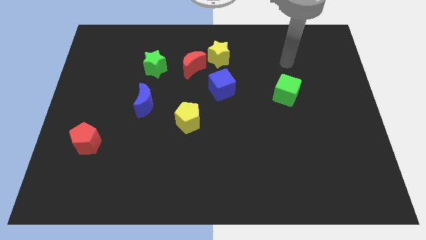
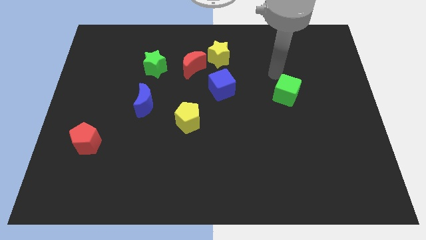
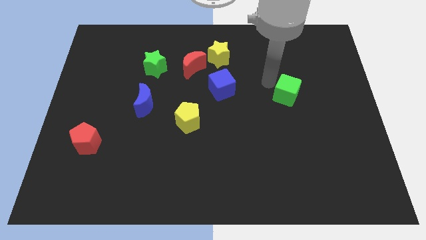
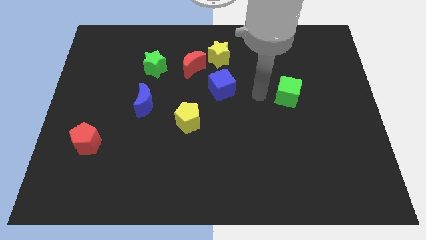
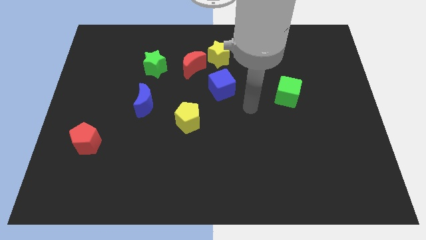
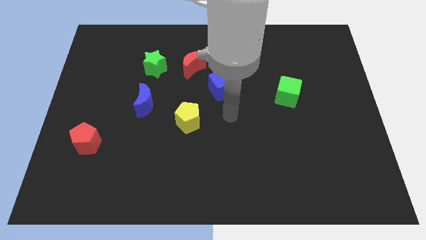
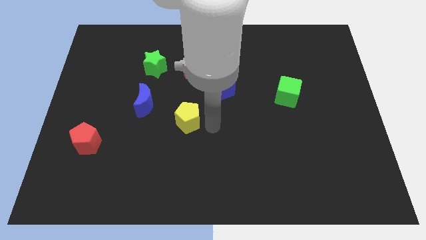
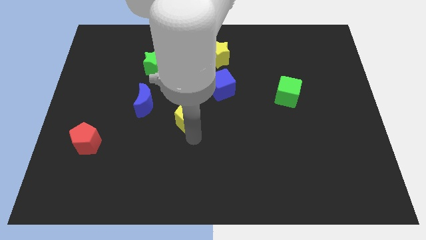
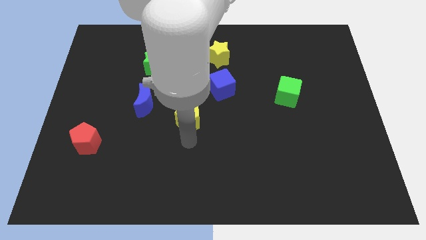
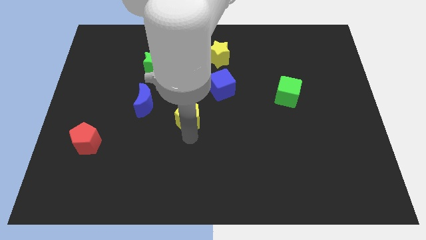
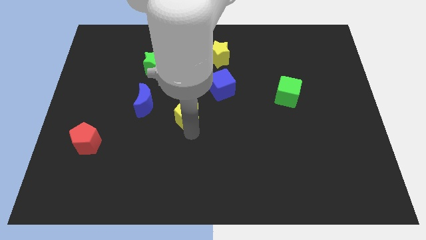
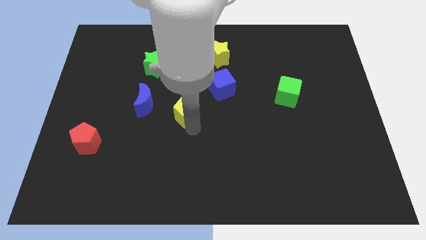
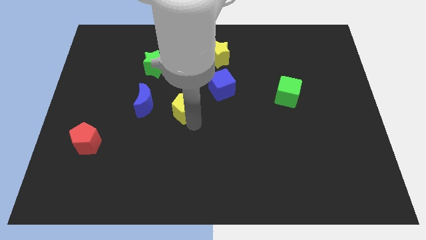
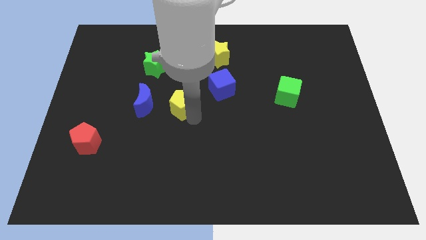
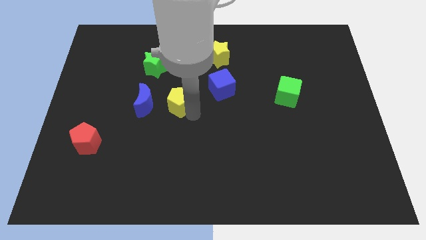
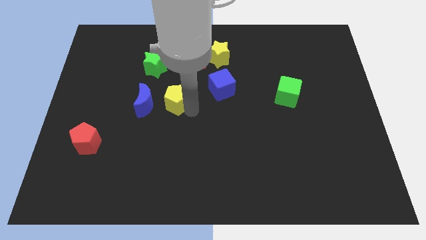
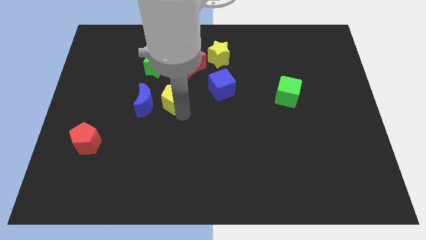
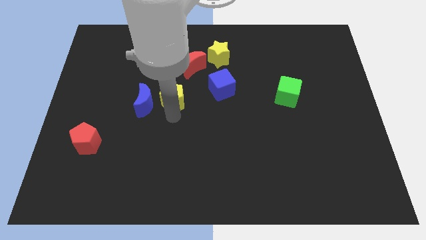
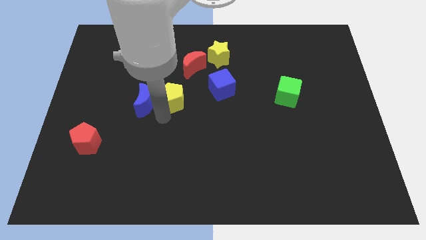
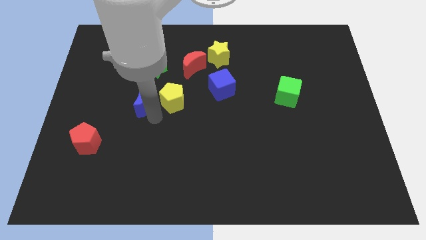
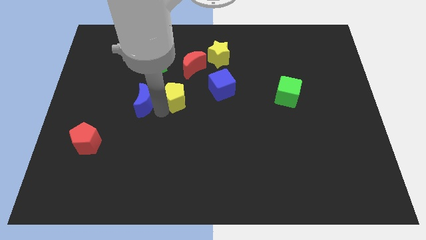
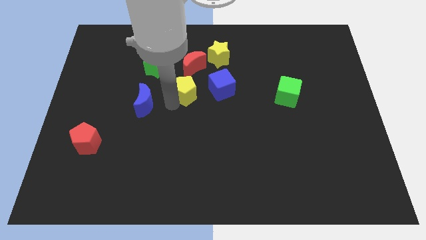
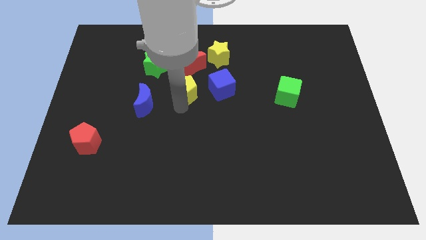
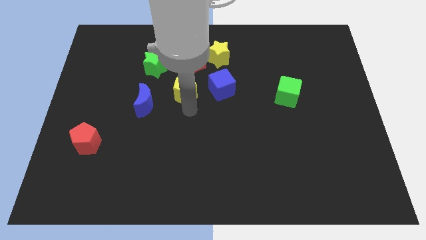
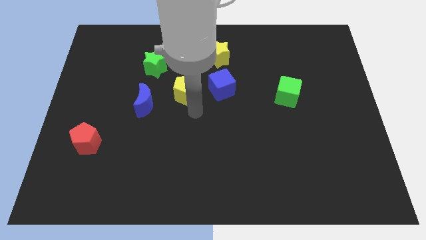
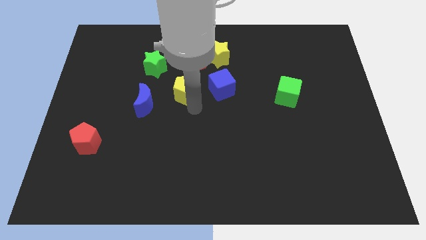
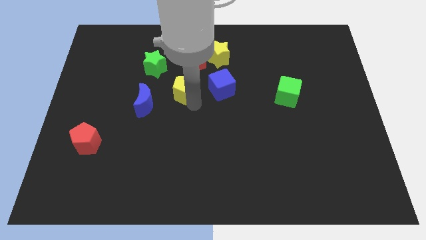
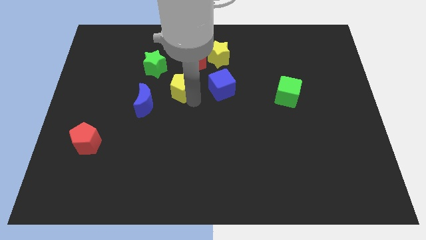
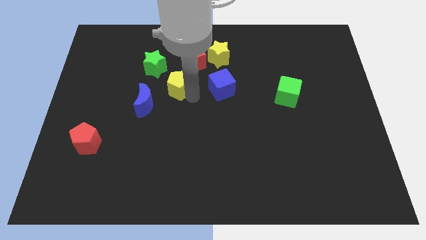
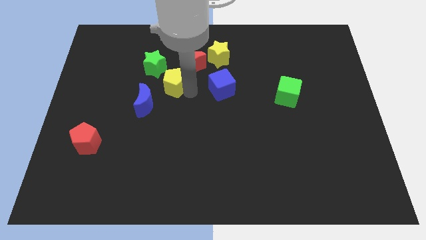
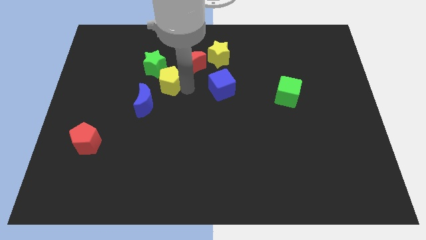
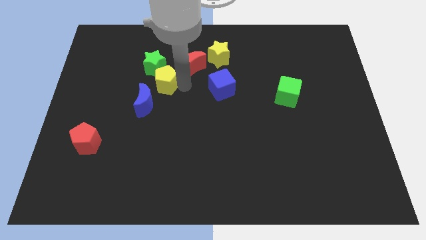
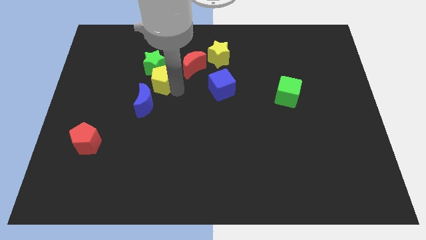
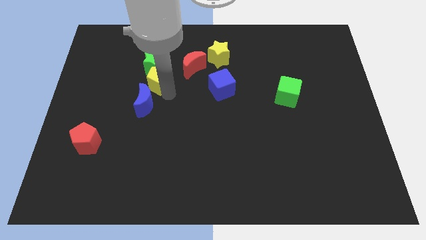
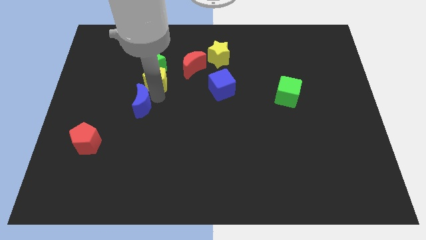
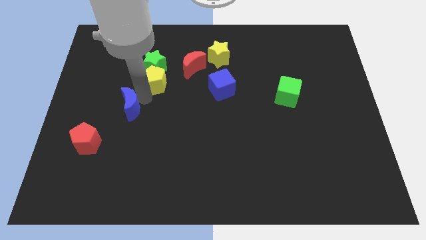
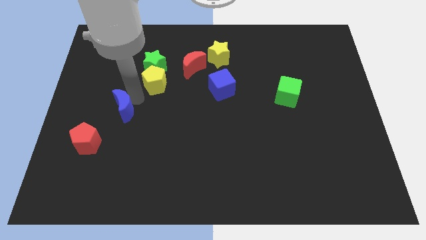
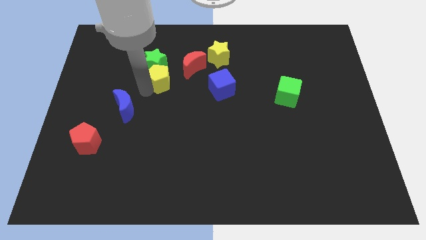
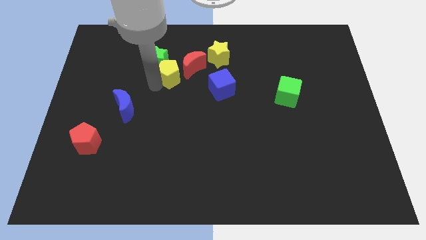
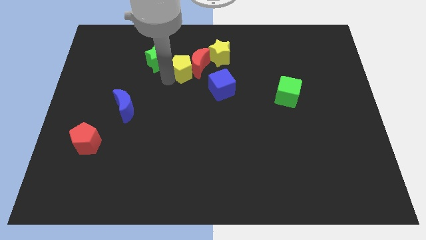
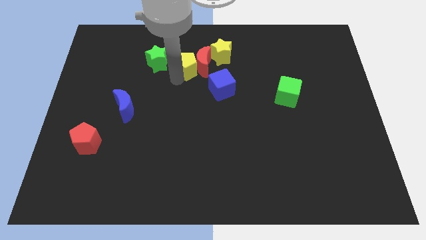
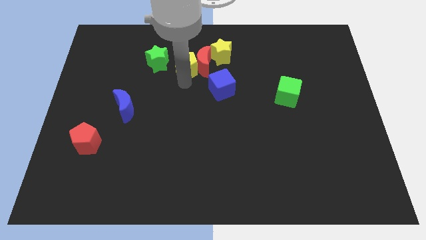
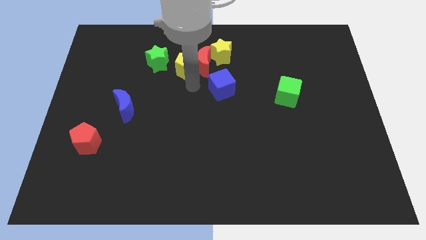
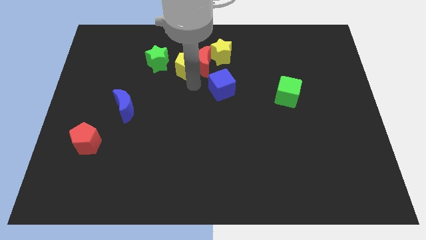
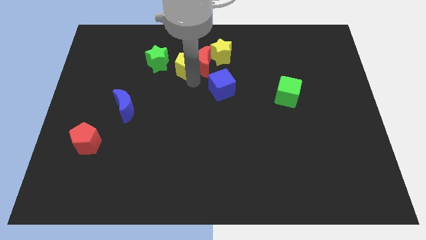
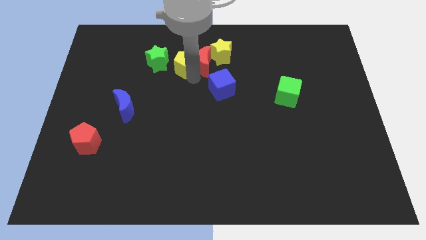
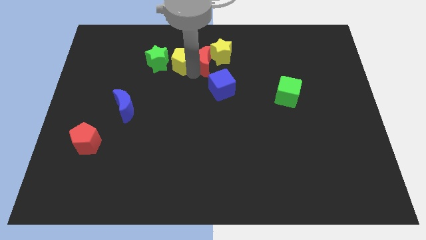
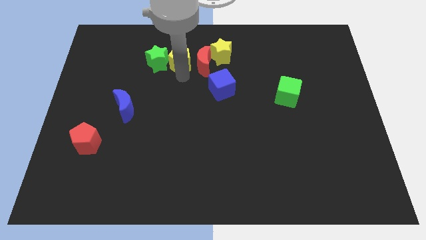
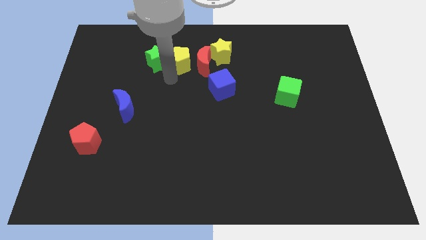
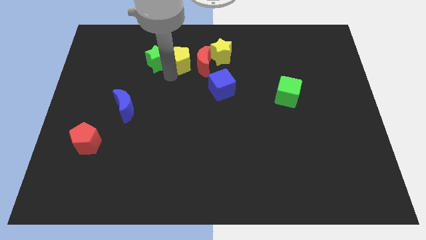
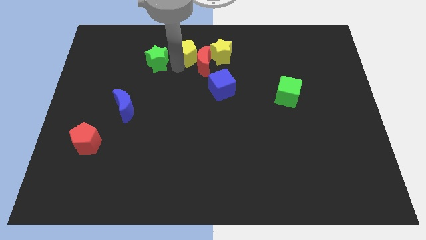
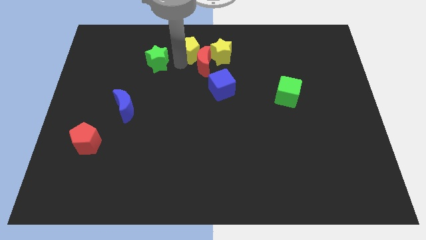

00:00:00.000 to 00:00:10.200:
move the yellow pentagon to the towards your base

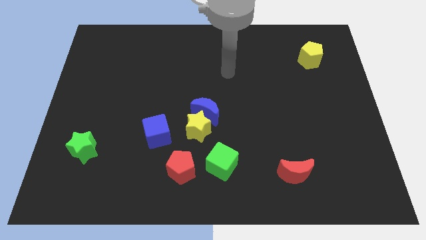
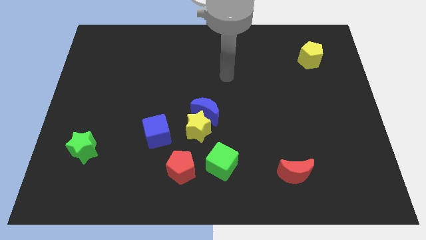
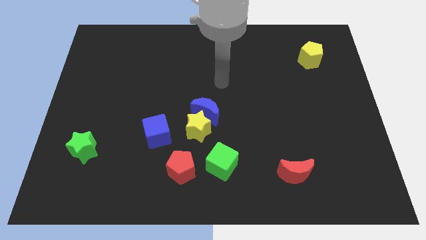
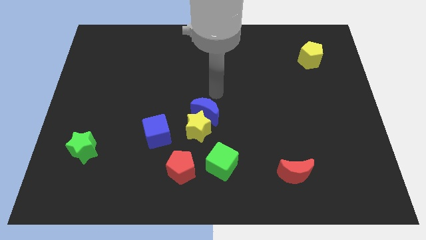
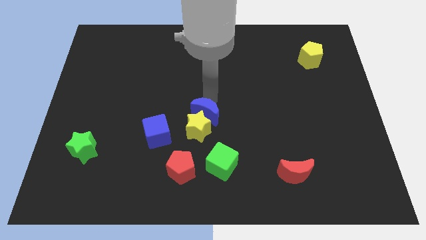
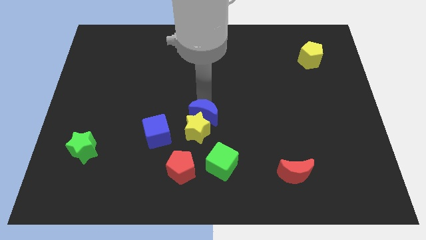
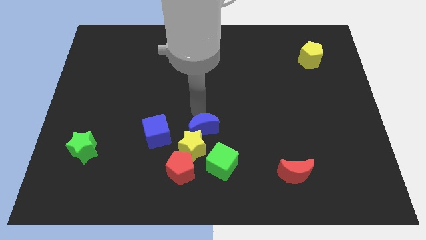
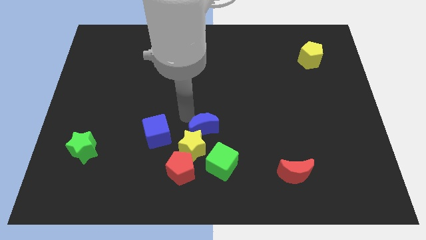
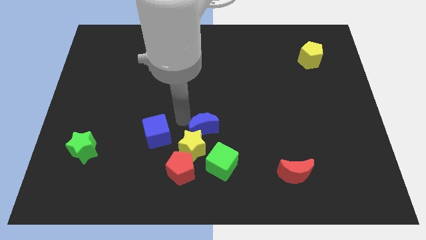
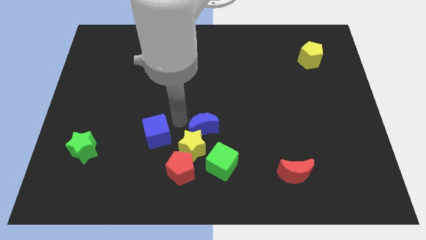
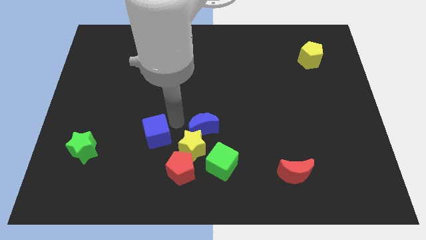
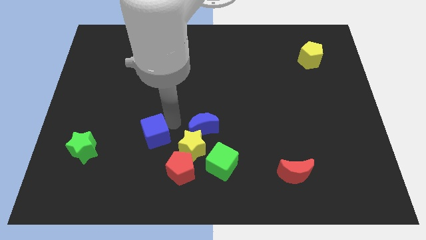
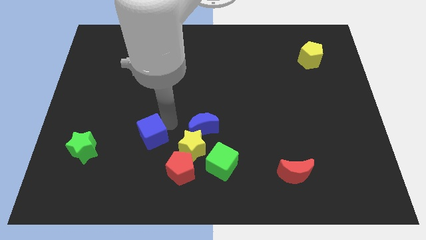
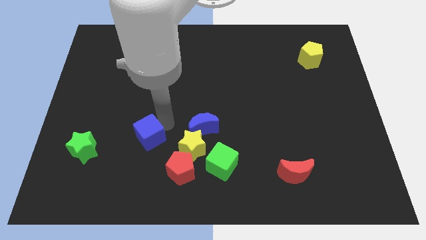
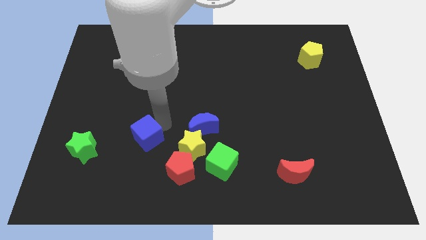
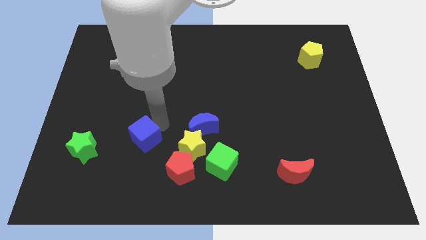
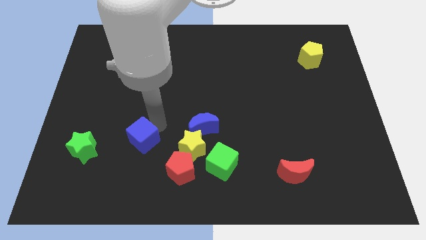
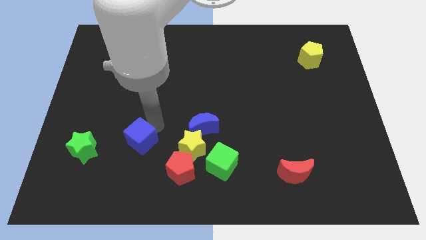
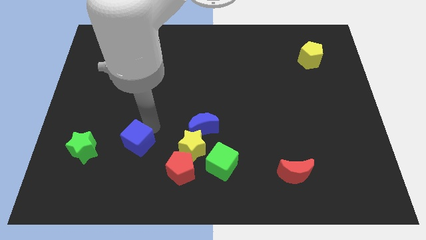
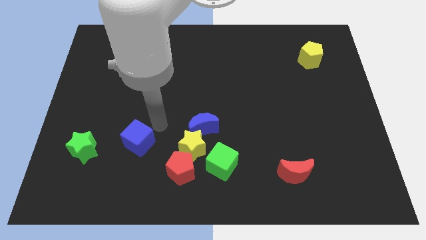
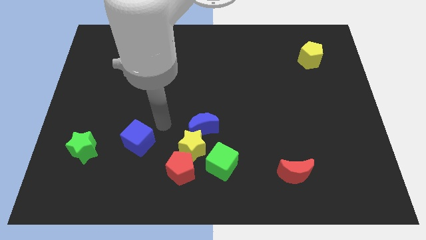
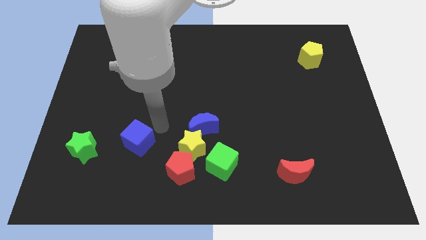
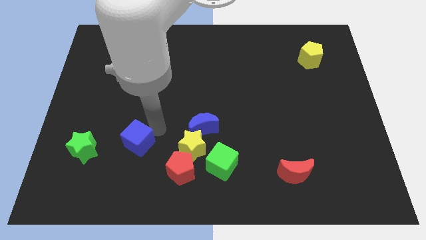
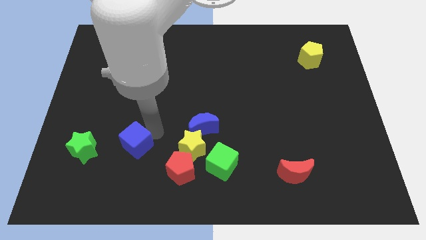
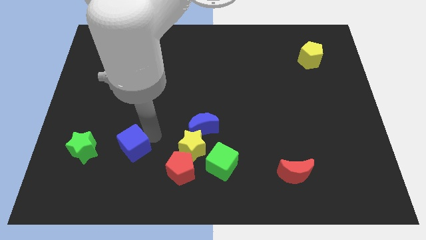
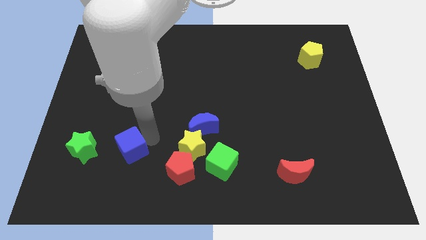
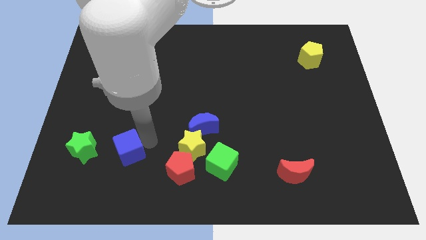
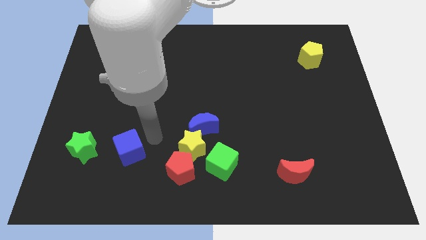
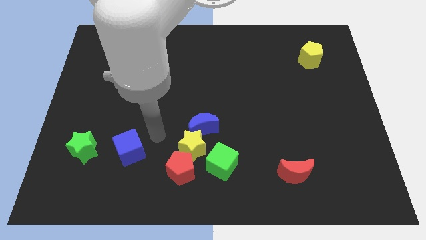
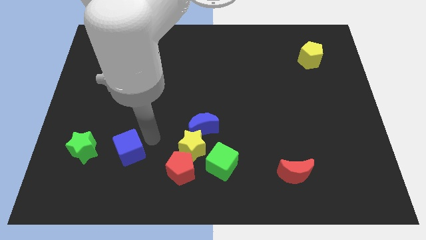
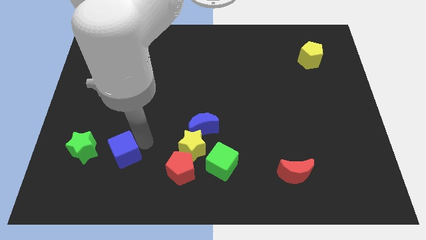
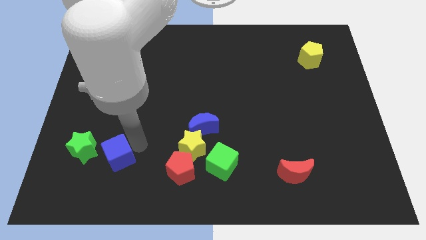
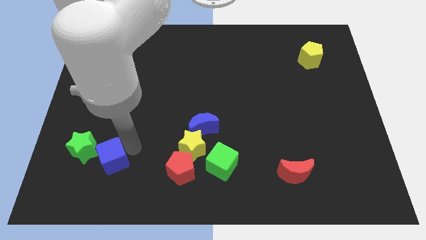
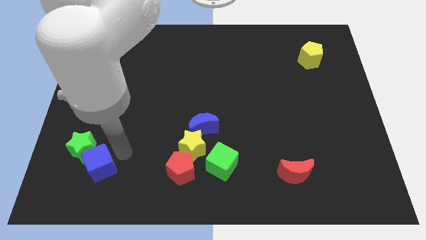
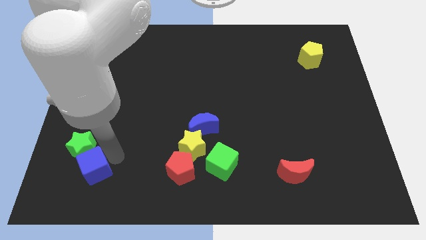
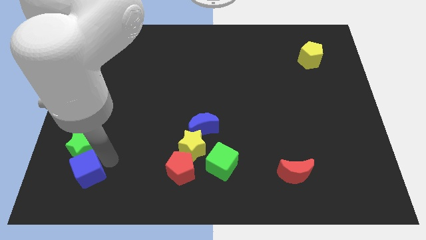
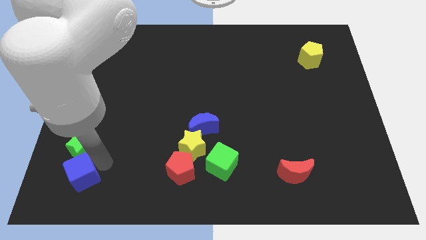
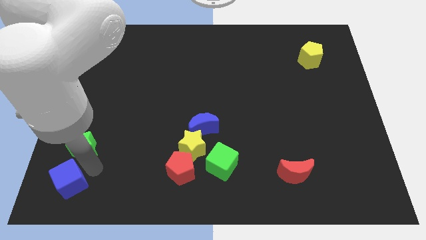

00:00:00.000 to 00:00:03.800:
push the blue cube to the bottom left of the board
